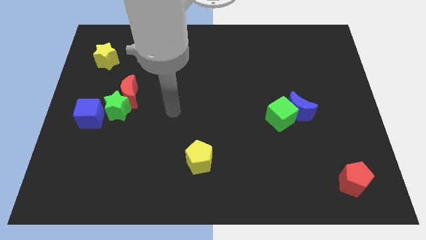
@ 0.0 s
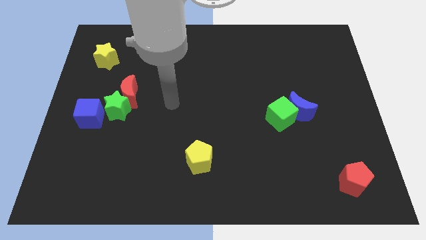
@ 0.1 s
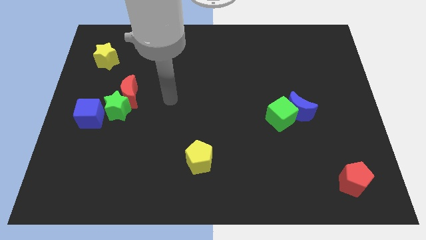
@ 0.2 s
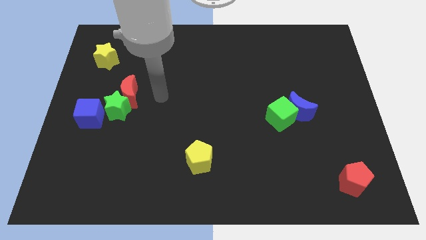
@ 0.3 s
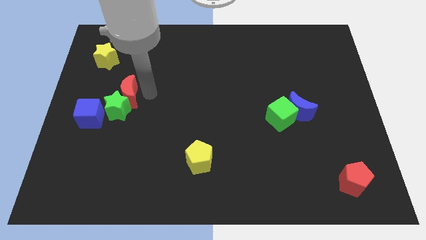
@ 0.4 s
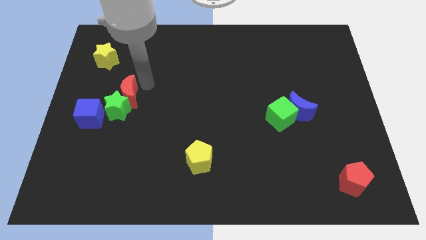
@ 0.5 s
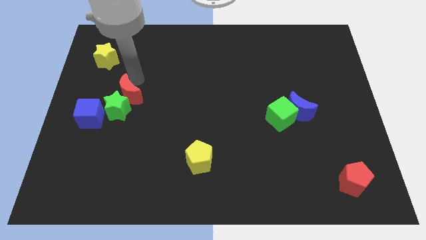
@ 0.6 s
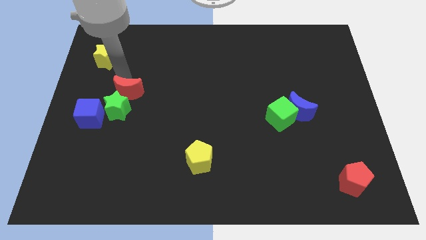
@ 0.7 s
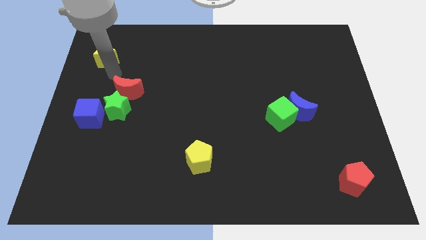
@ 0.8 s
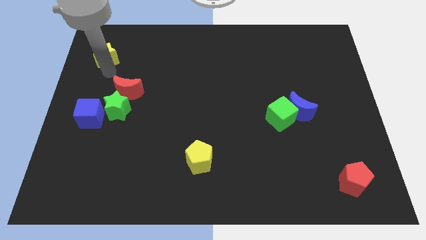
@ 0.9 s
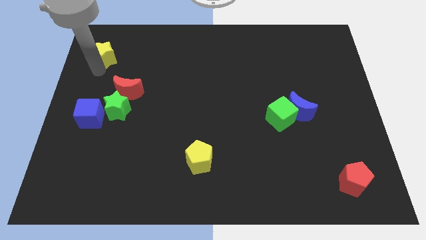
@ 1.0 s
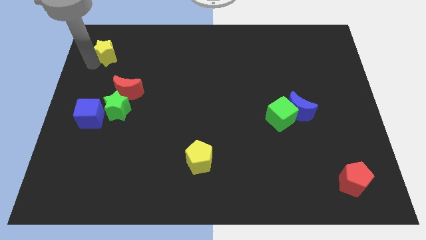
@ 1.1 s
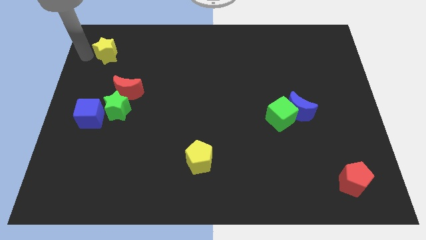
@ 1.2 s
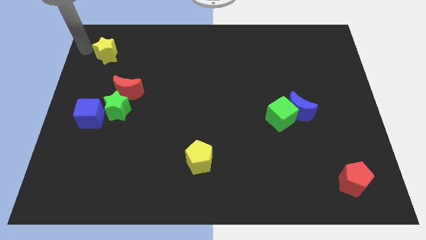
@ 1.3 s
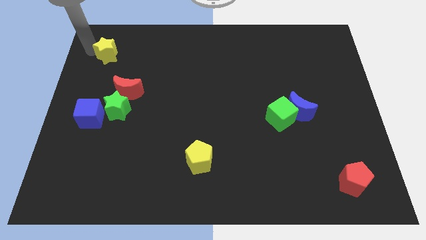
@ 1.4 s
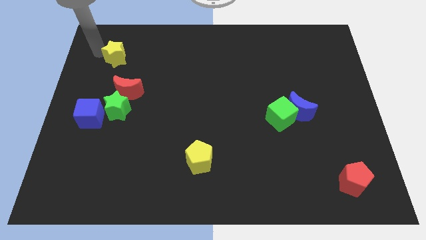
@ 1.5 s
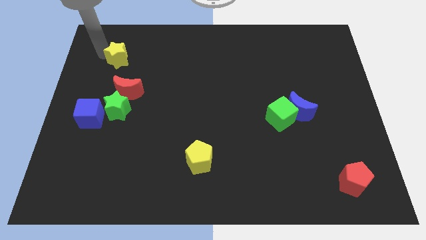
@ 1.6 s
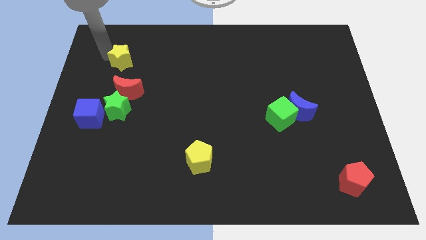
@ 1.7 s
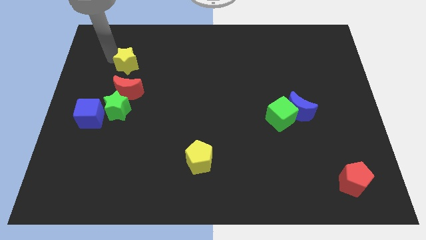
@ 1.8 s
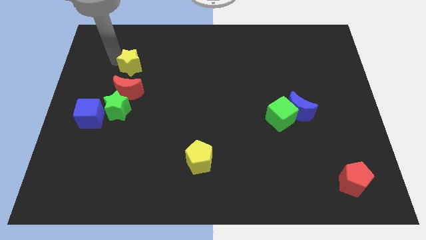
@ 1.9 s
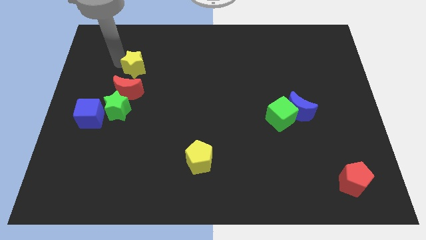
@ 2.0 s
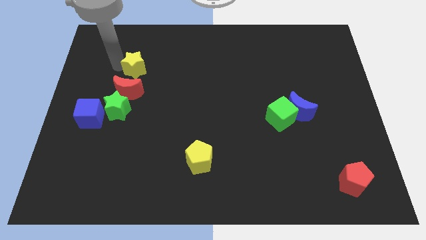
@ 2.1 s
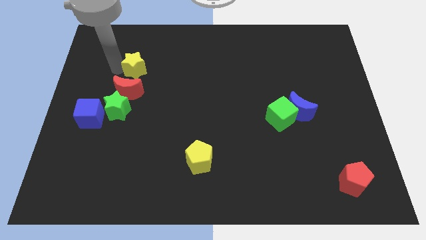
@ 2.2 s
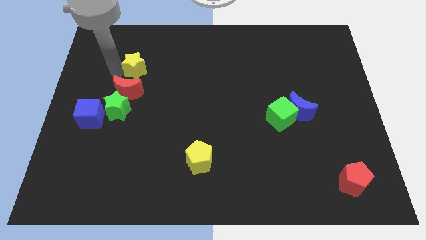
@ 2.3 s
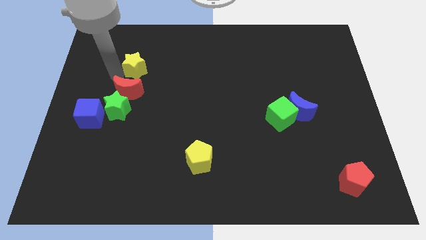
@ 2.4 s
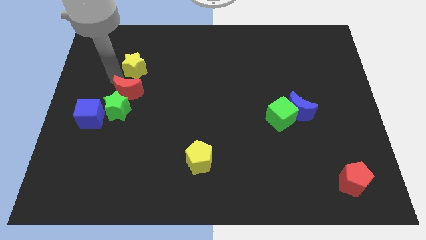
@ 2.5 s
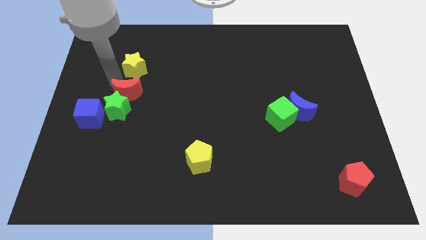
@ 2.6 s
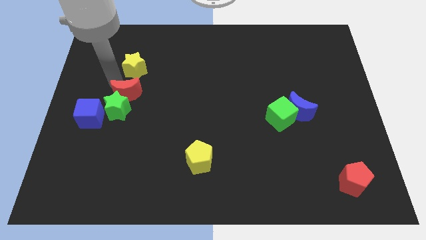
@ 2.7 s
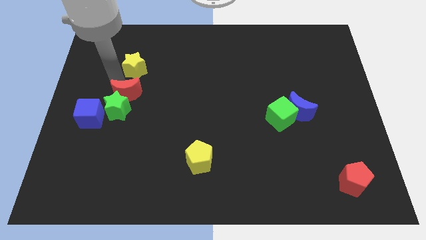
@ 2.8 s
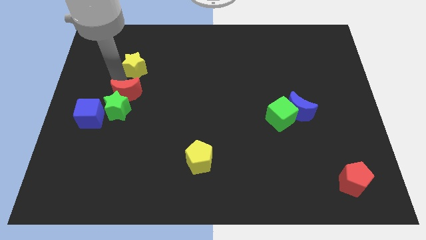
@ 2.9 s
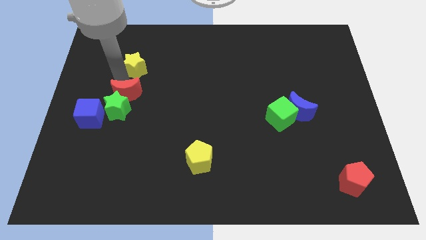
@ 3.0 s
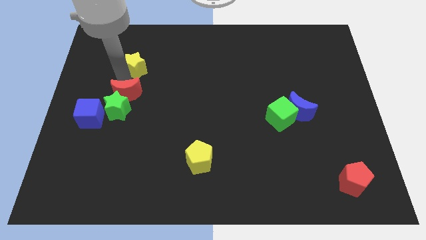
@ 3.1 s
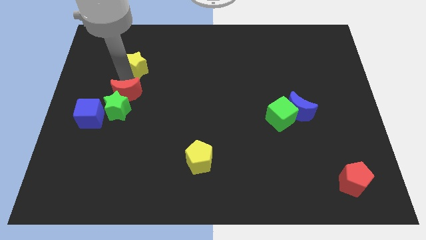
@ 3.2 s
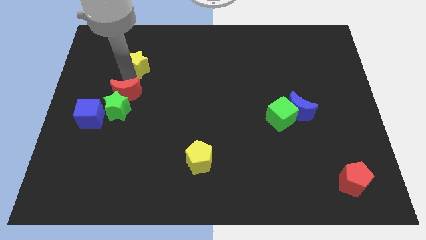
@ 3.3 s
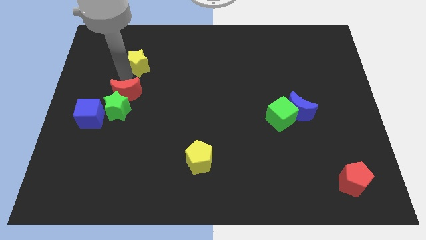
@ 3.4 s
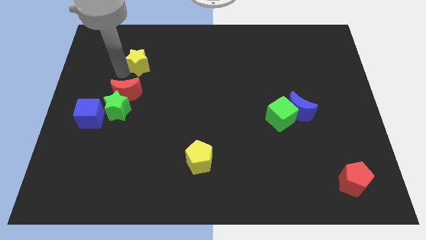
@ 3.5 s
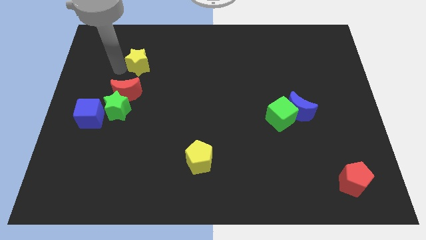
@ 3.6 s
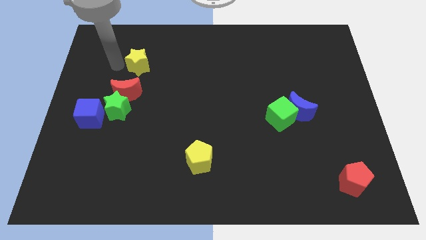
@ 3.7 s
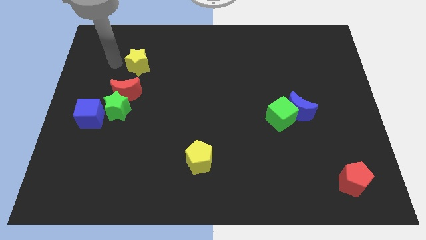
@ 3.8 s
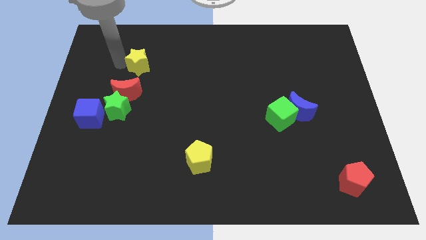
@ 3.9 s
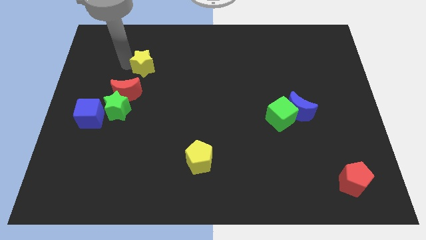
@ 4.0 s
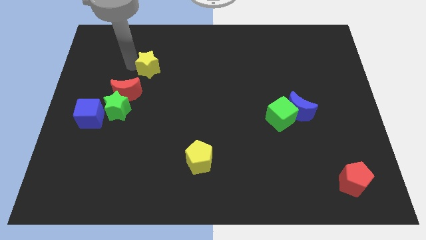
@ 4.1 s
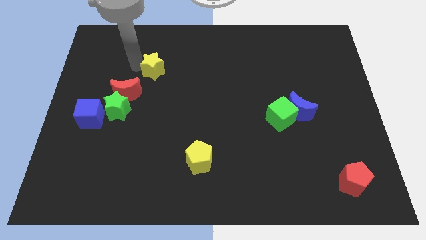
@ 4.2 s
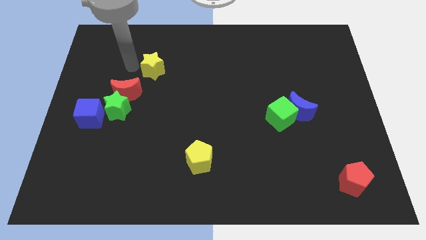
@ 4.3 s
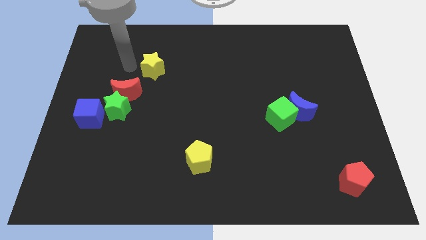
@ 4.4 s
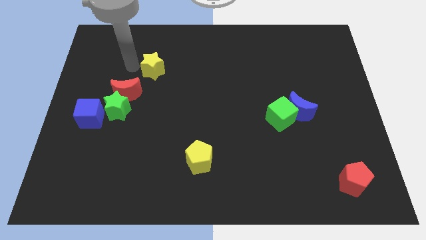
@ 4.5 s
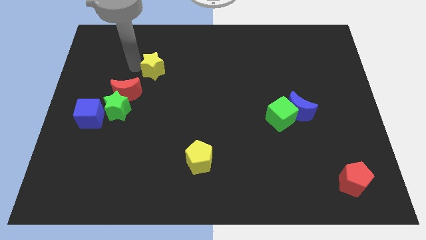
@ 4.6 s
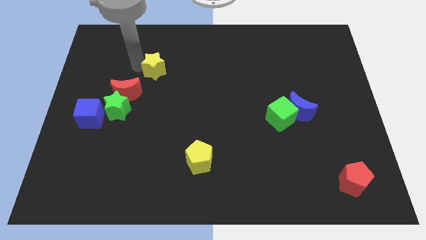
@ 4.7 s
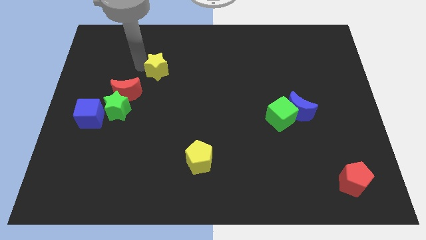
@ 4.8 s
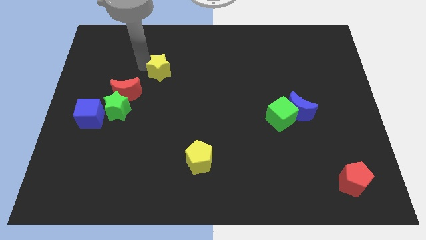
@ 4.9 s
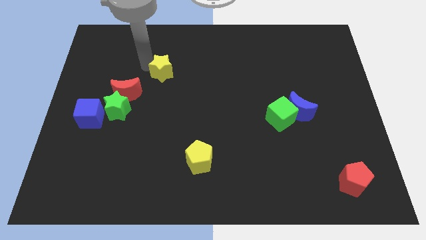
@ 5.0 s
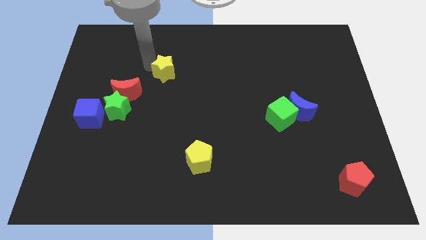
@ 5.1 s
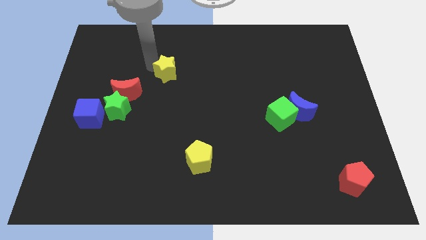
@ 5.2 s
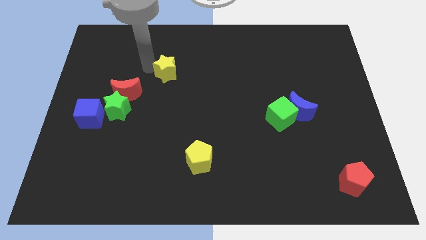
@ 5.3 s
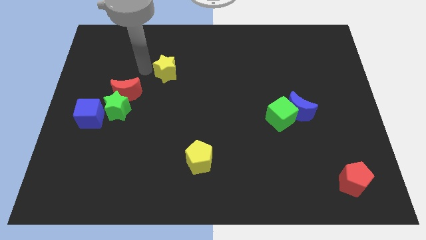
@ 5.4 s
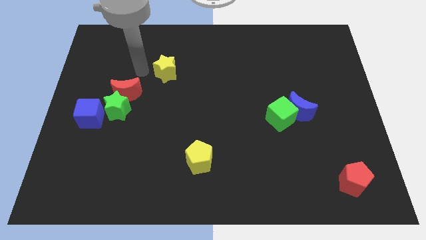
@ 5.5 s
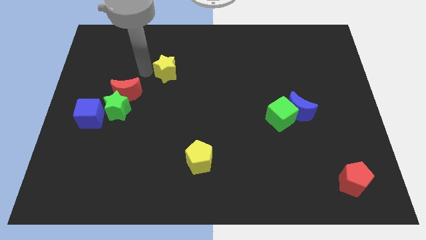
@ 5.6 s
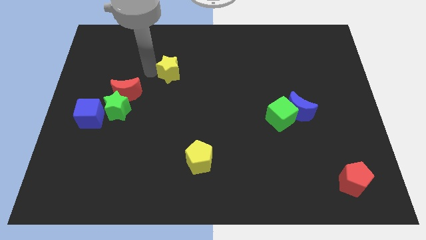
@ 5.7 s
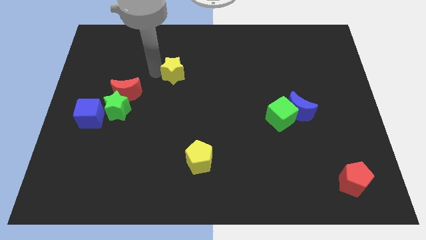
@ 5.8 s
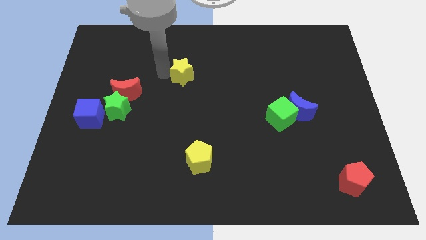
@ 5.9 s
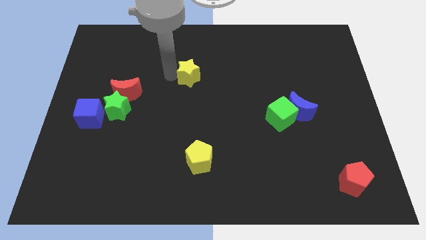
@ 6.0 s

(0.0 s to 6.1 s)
slide the yellow star right

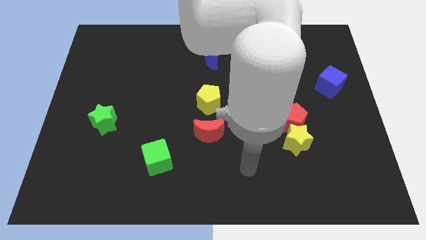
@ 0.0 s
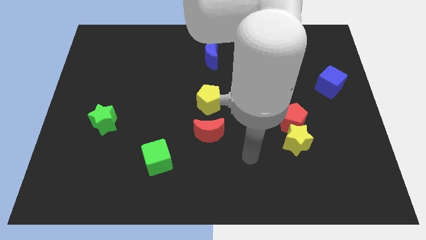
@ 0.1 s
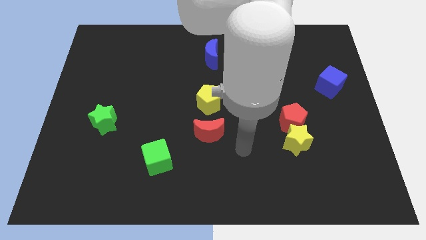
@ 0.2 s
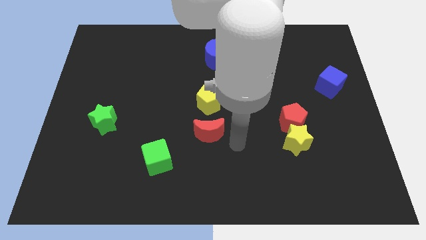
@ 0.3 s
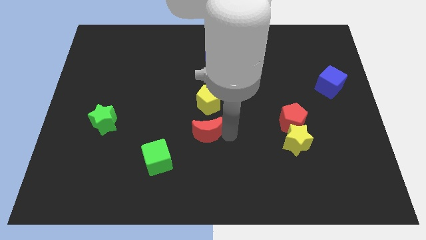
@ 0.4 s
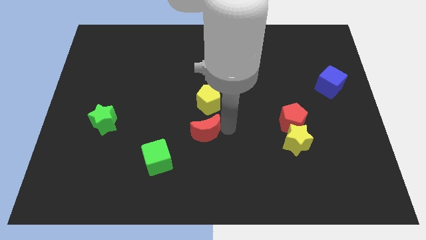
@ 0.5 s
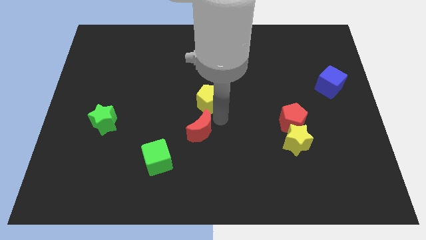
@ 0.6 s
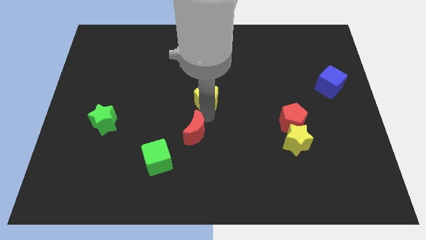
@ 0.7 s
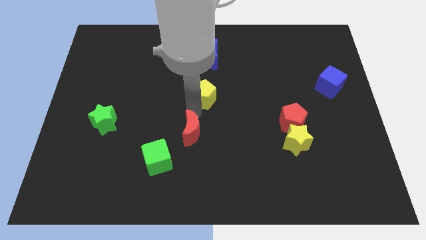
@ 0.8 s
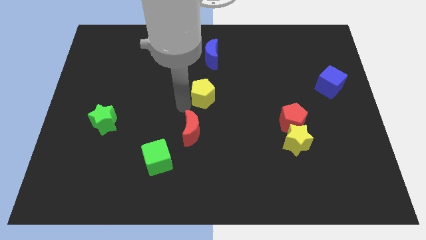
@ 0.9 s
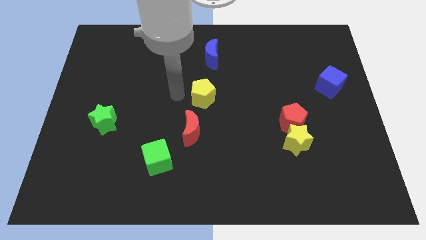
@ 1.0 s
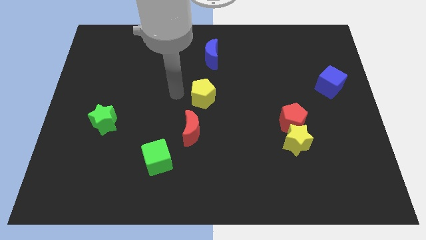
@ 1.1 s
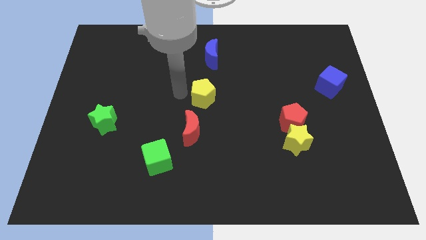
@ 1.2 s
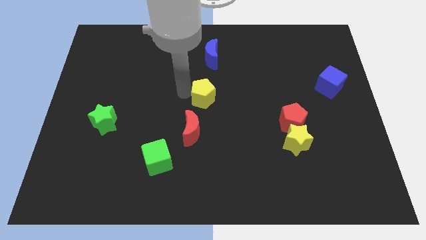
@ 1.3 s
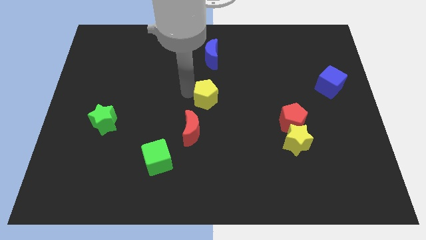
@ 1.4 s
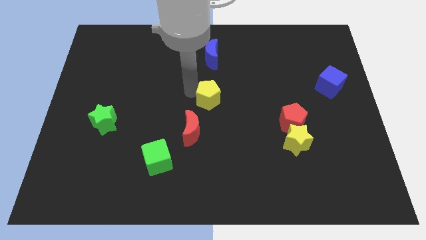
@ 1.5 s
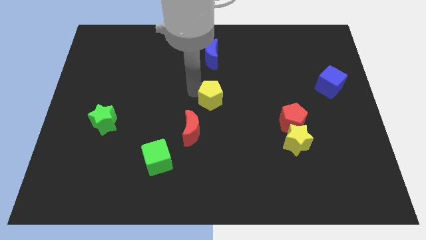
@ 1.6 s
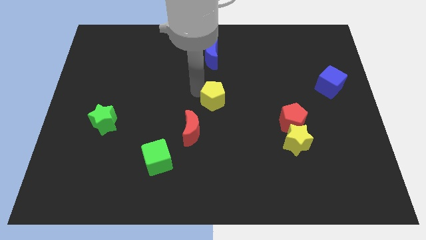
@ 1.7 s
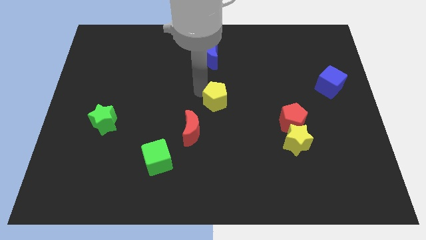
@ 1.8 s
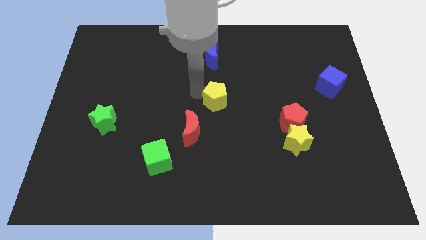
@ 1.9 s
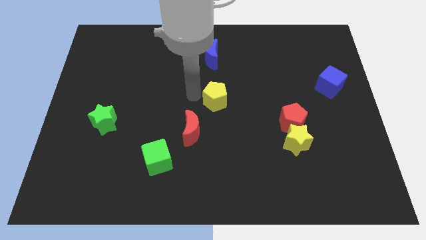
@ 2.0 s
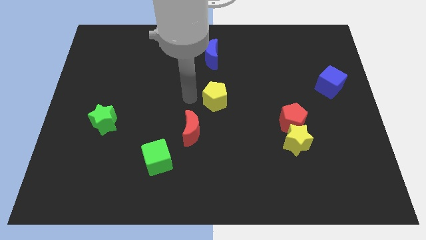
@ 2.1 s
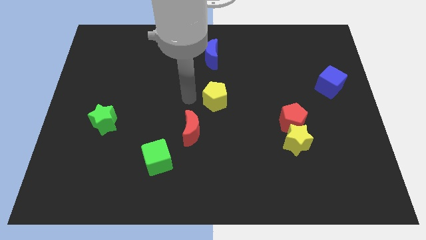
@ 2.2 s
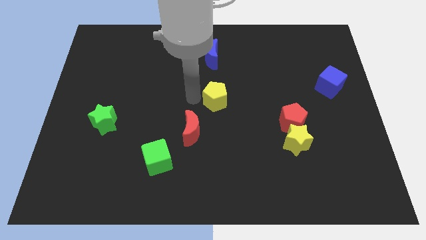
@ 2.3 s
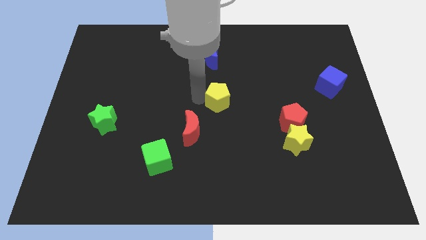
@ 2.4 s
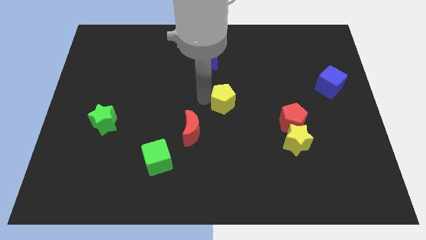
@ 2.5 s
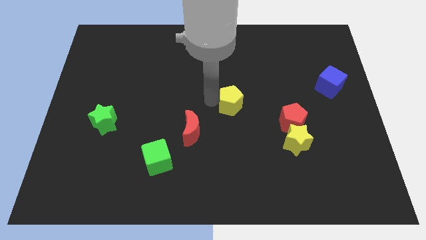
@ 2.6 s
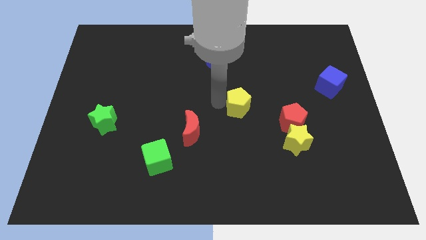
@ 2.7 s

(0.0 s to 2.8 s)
slide the yellow pentagon right somewhat
